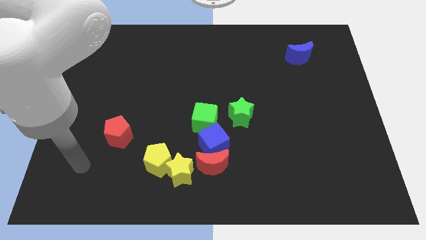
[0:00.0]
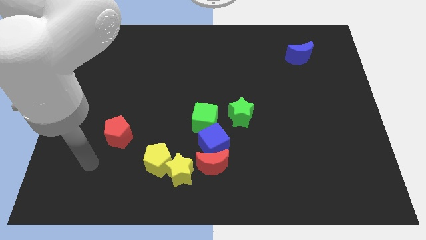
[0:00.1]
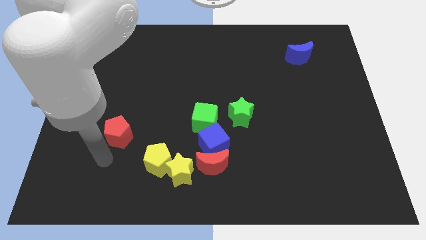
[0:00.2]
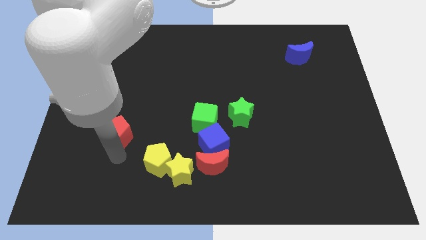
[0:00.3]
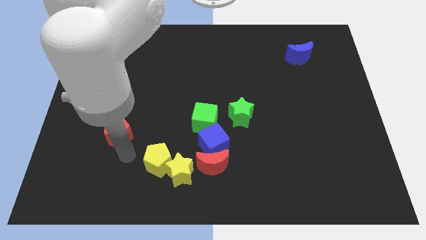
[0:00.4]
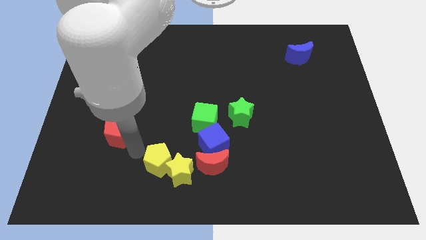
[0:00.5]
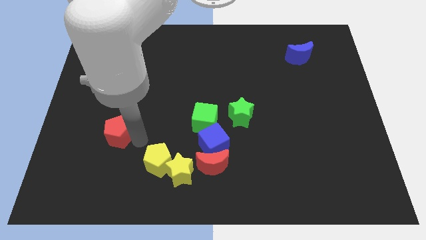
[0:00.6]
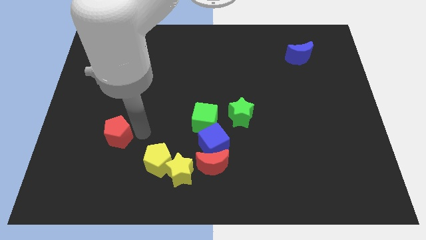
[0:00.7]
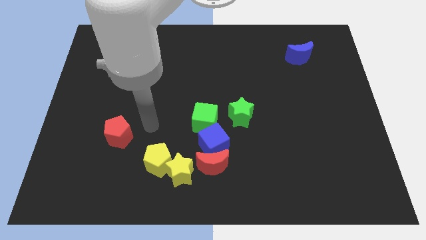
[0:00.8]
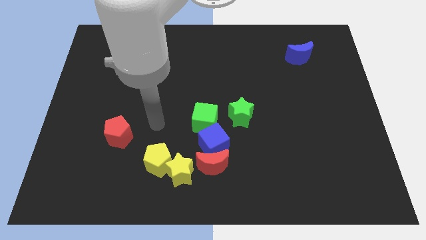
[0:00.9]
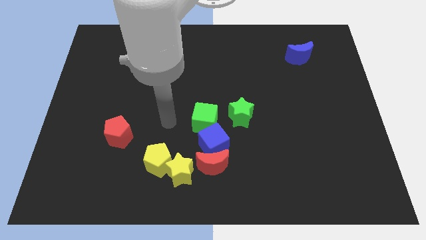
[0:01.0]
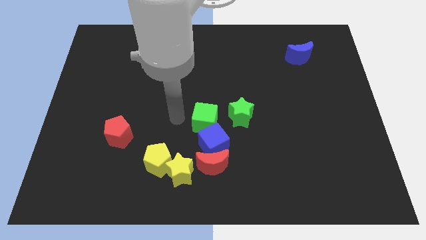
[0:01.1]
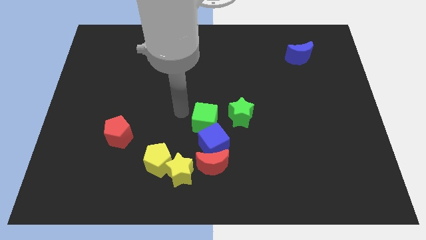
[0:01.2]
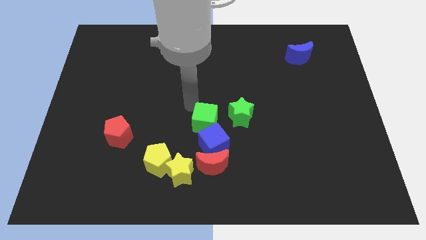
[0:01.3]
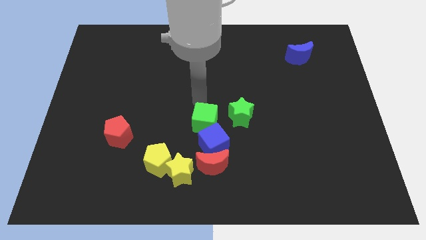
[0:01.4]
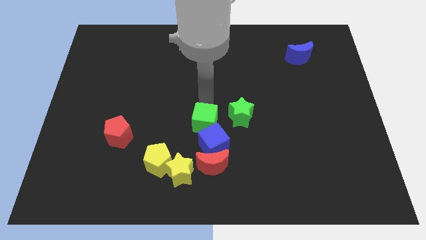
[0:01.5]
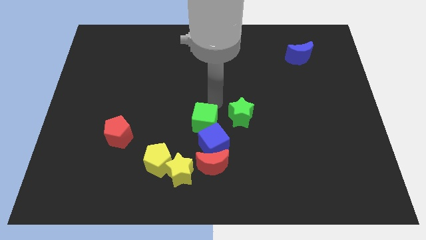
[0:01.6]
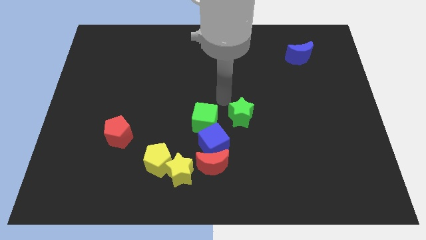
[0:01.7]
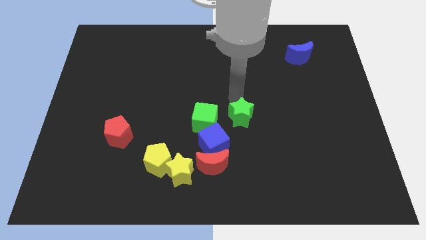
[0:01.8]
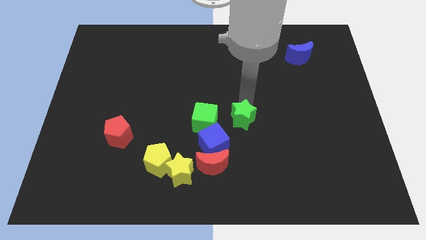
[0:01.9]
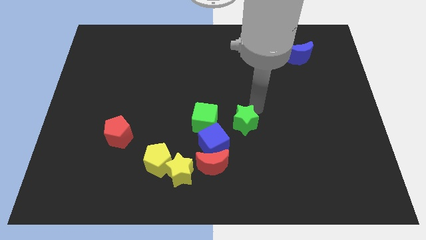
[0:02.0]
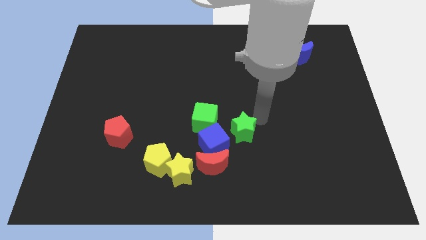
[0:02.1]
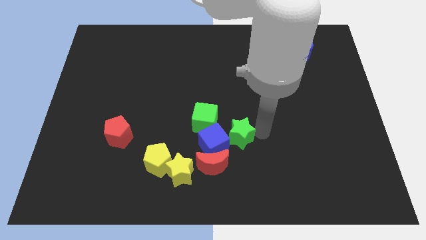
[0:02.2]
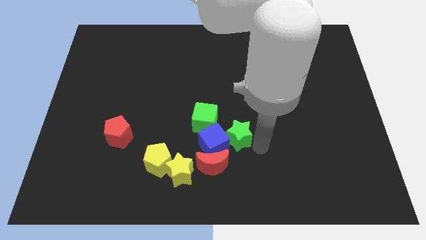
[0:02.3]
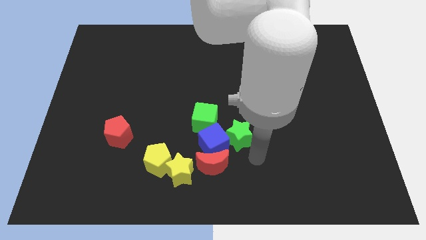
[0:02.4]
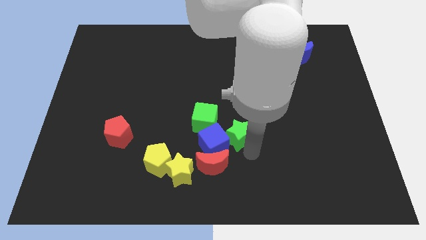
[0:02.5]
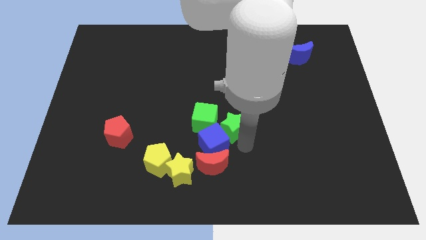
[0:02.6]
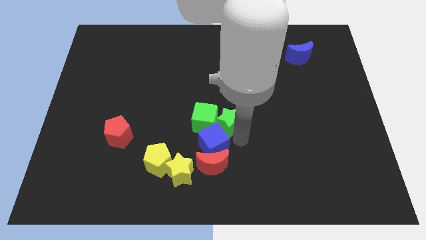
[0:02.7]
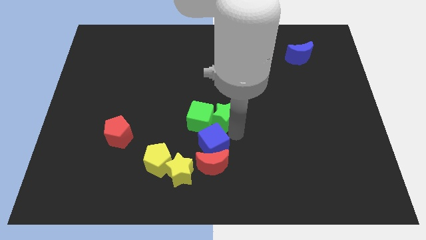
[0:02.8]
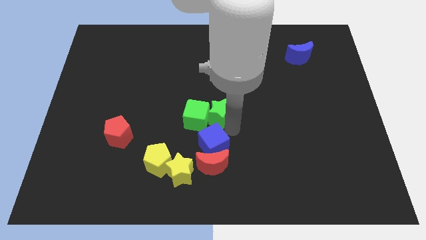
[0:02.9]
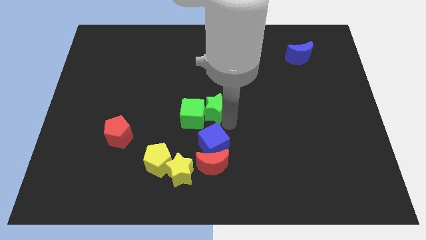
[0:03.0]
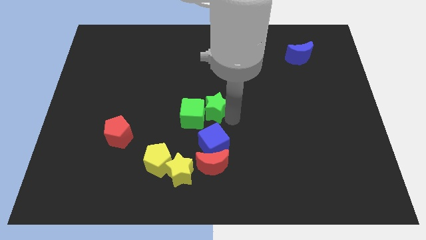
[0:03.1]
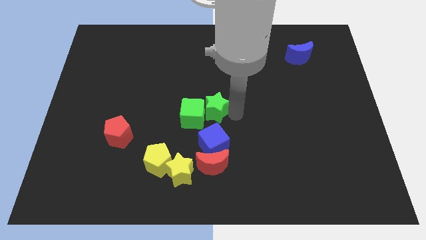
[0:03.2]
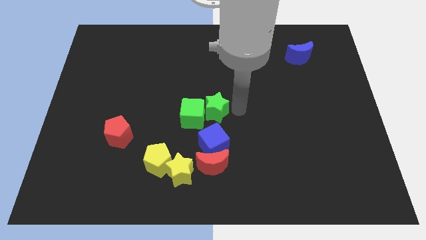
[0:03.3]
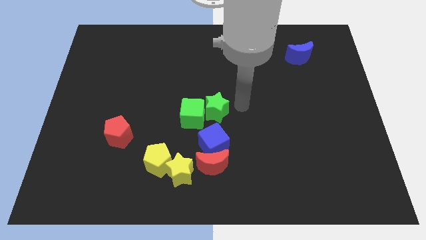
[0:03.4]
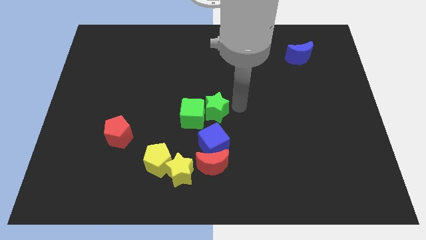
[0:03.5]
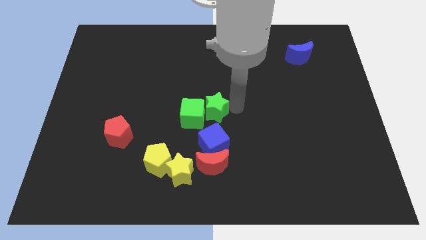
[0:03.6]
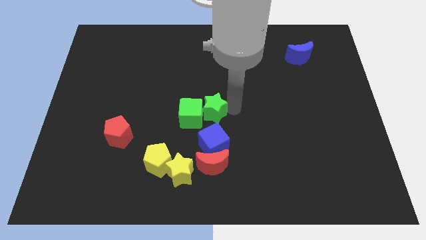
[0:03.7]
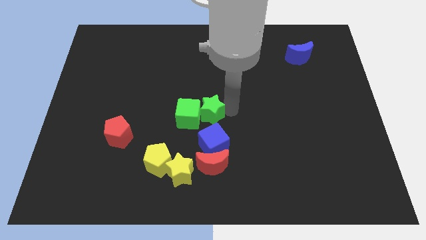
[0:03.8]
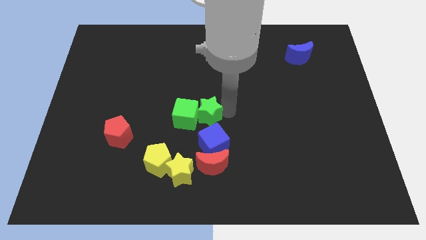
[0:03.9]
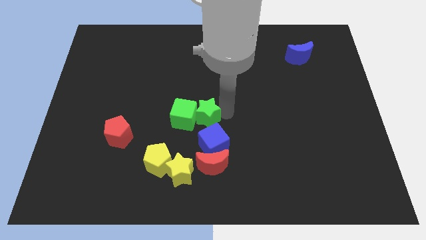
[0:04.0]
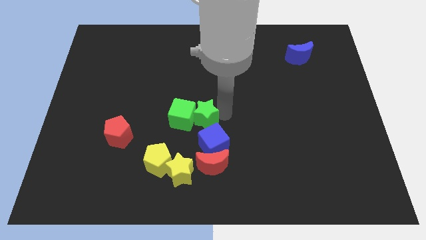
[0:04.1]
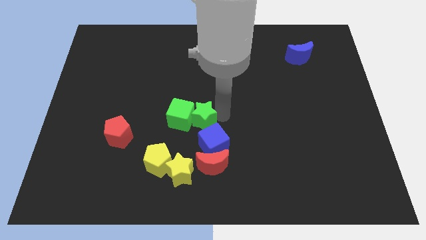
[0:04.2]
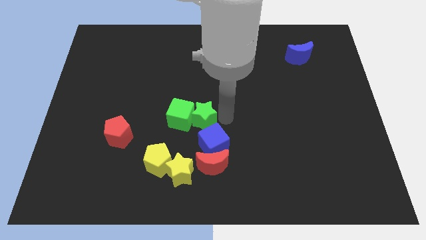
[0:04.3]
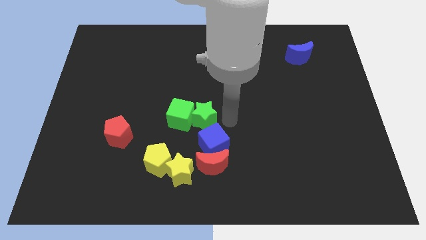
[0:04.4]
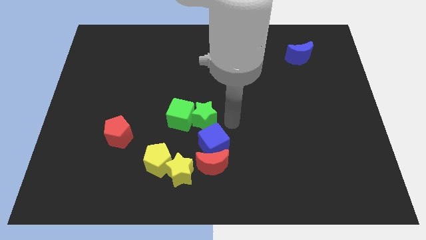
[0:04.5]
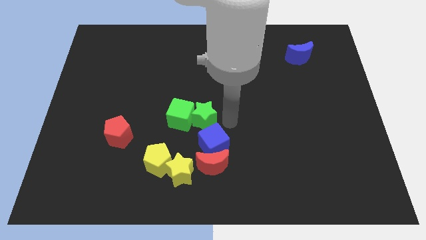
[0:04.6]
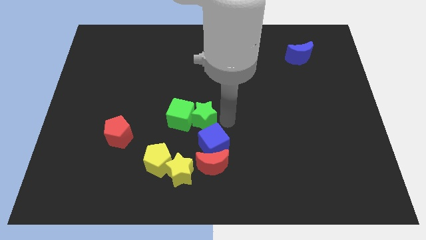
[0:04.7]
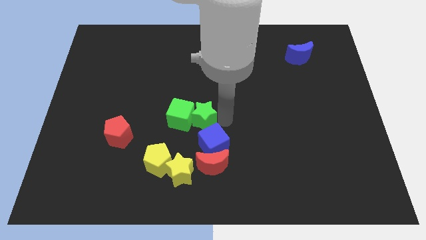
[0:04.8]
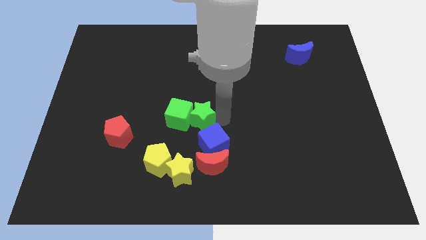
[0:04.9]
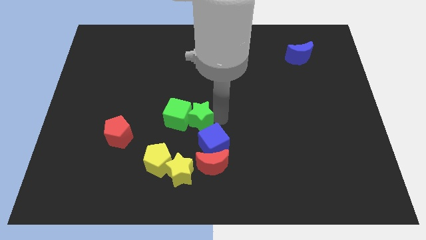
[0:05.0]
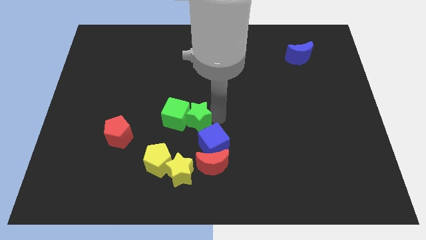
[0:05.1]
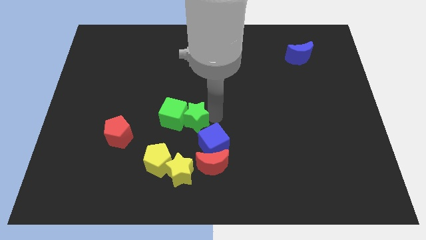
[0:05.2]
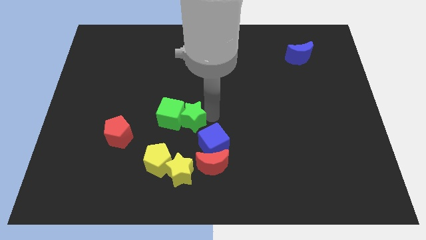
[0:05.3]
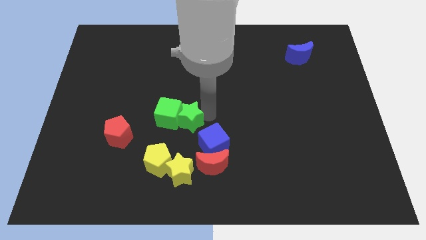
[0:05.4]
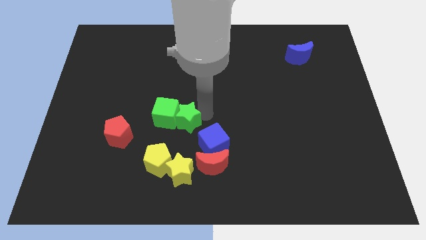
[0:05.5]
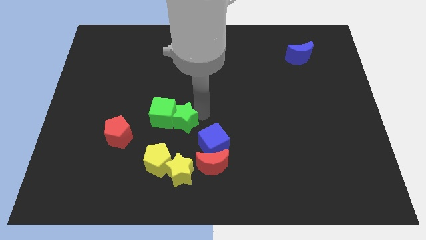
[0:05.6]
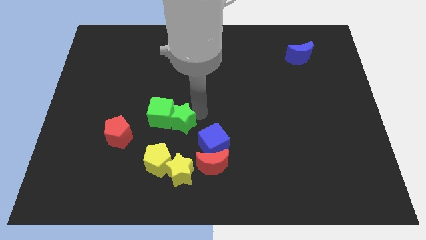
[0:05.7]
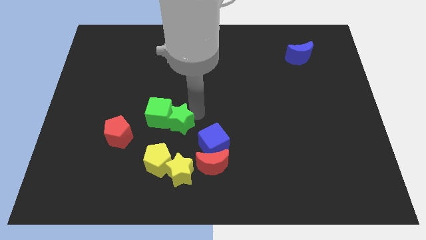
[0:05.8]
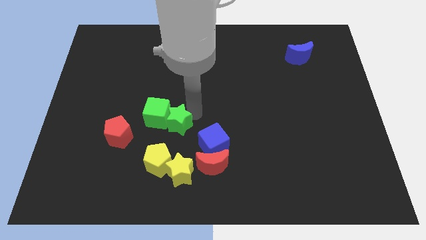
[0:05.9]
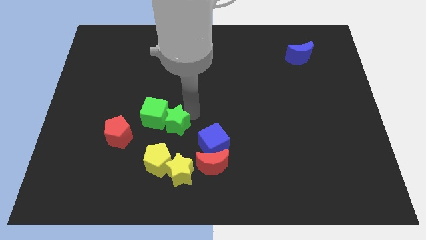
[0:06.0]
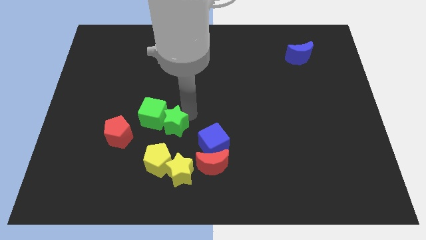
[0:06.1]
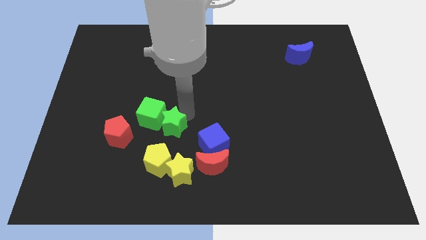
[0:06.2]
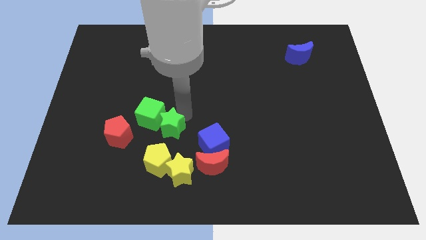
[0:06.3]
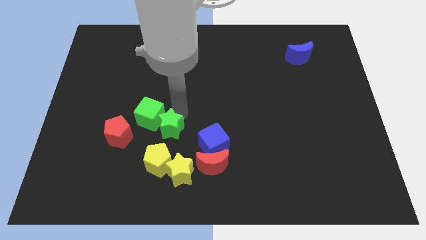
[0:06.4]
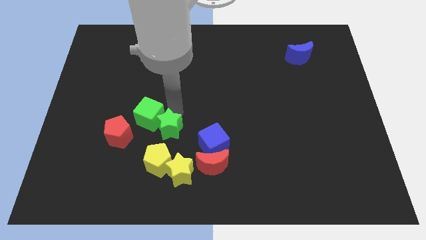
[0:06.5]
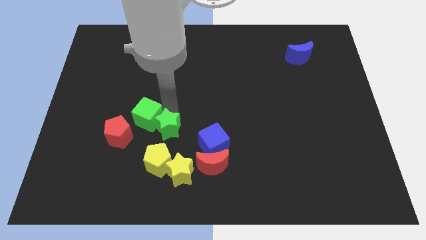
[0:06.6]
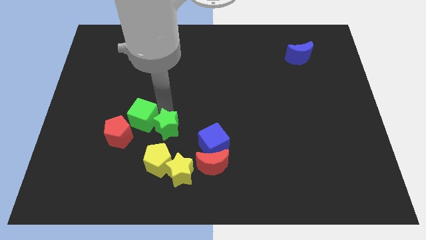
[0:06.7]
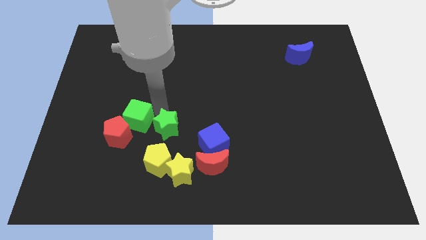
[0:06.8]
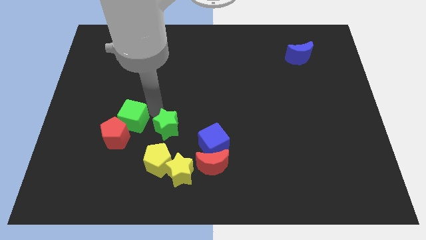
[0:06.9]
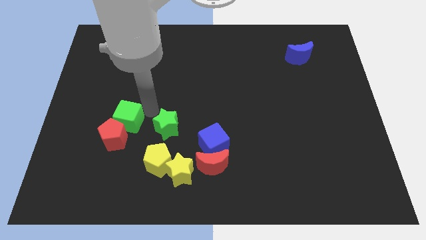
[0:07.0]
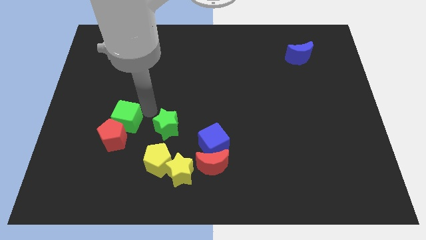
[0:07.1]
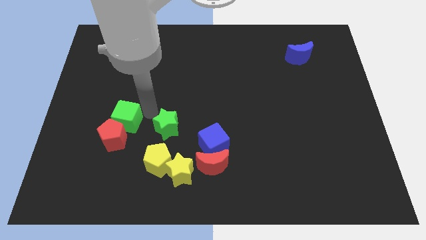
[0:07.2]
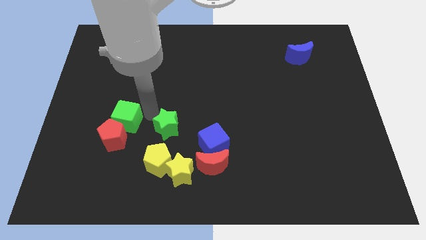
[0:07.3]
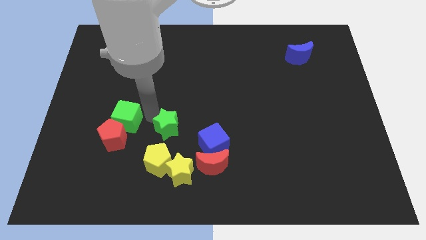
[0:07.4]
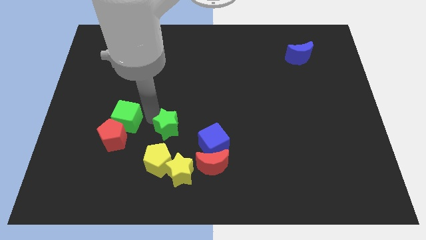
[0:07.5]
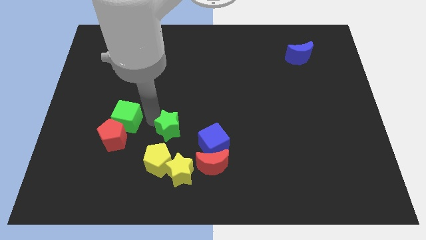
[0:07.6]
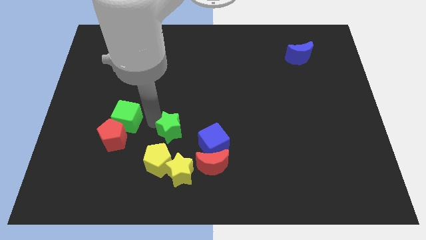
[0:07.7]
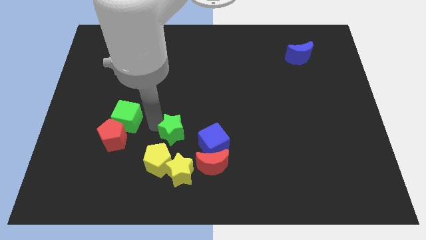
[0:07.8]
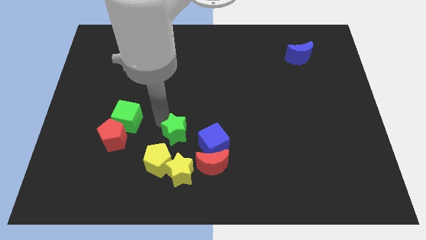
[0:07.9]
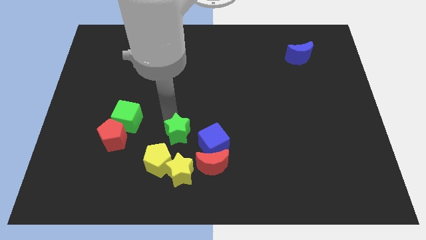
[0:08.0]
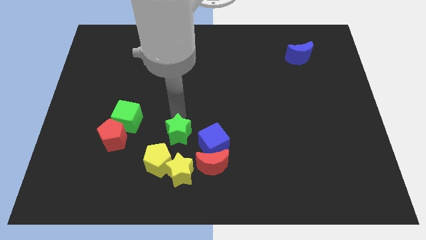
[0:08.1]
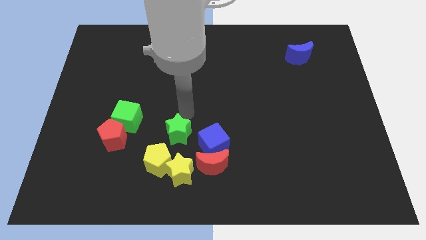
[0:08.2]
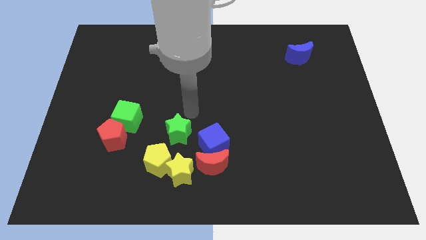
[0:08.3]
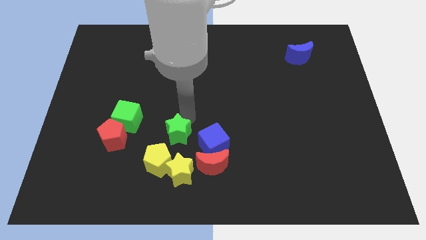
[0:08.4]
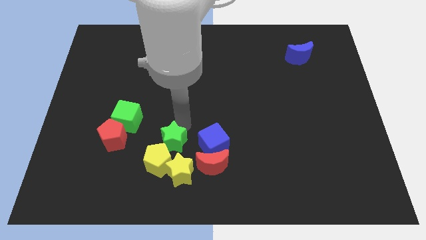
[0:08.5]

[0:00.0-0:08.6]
move the green star next to the yellow pentagon
